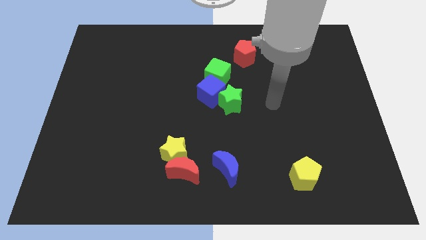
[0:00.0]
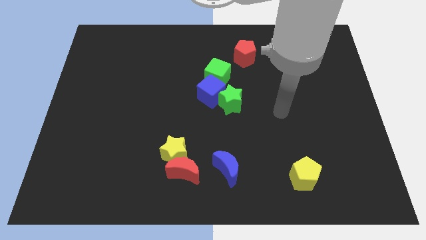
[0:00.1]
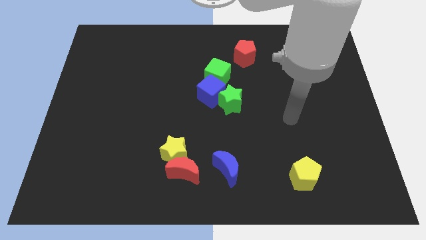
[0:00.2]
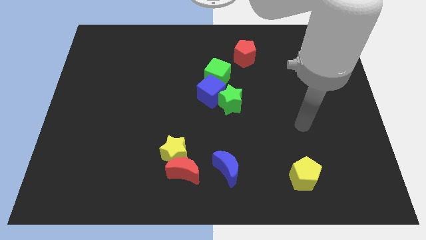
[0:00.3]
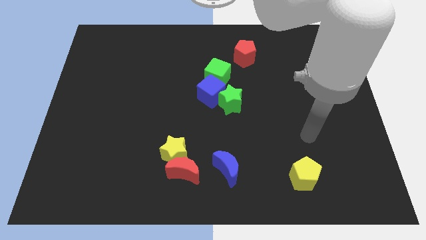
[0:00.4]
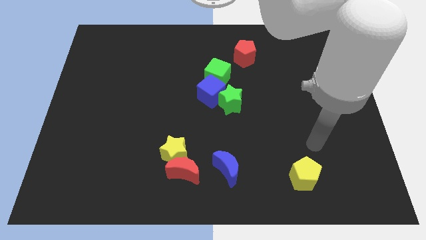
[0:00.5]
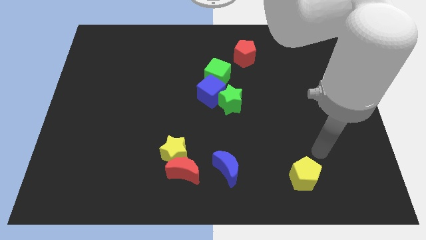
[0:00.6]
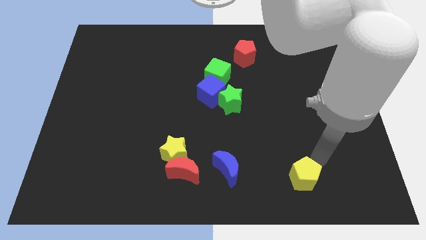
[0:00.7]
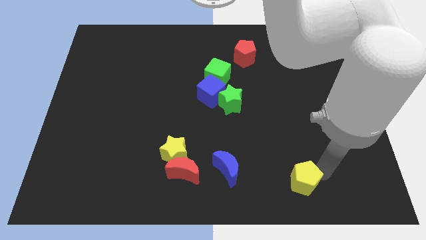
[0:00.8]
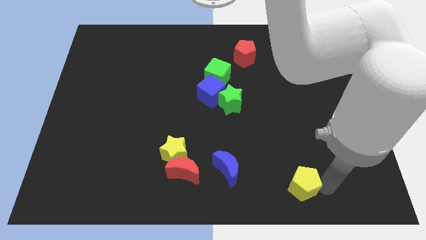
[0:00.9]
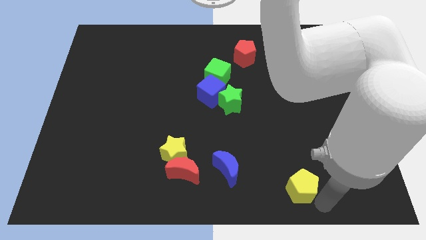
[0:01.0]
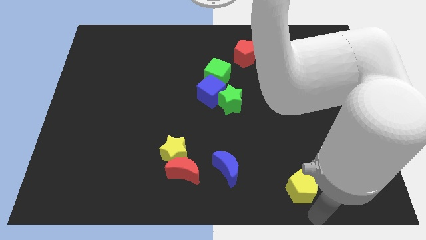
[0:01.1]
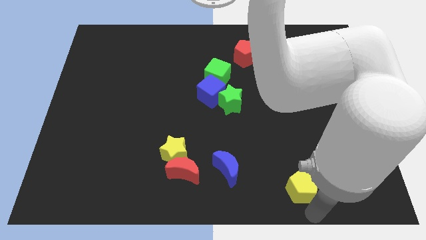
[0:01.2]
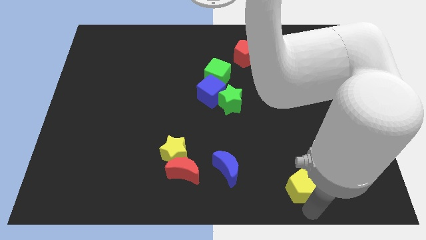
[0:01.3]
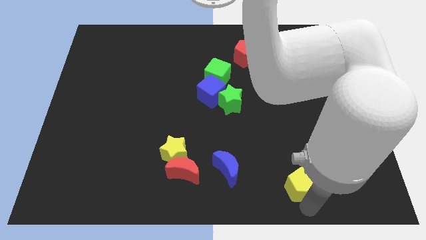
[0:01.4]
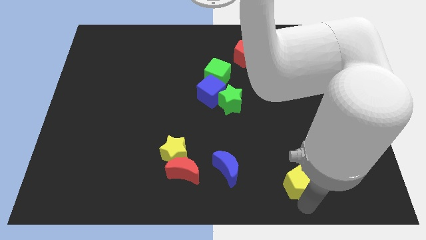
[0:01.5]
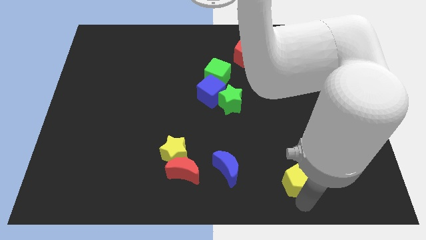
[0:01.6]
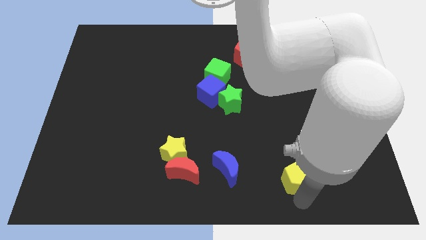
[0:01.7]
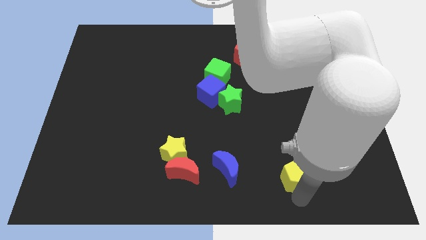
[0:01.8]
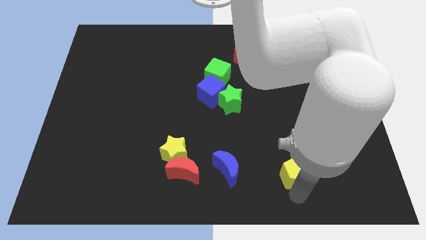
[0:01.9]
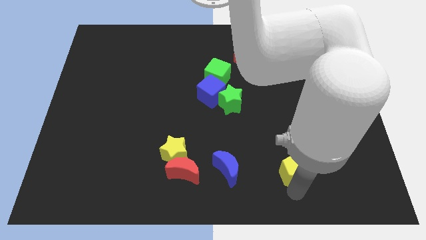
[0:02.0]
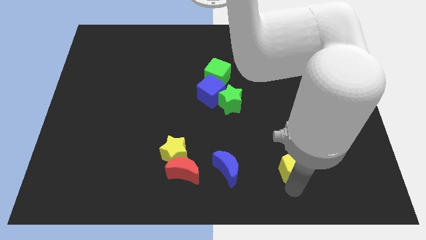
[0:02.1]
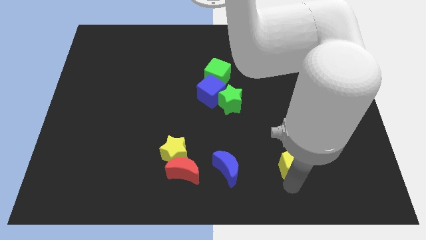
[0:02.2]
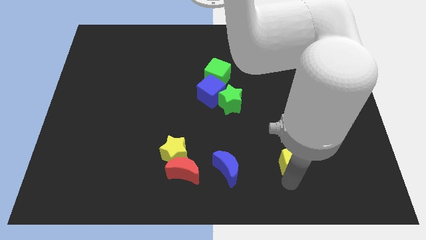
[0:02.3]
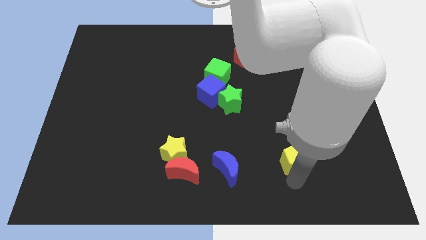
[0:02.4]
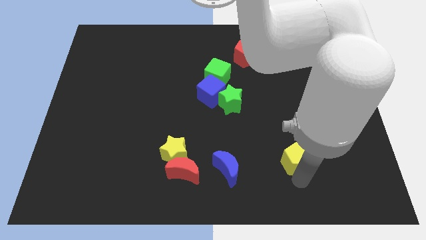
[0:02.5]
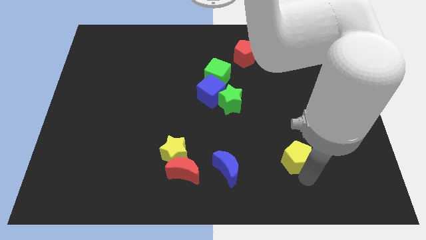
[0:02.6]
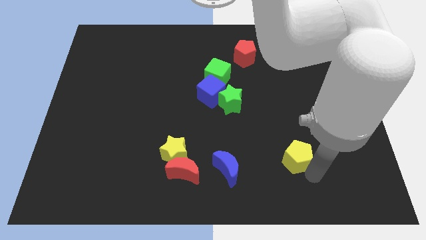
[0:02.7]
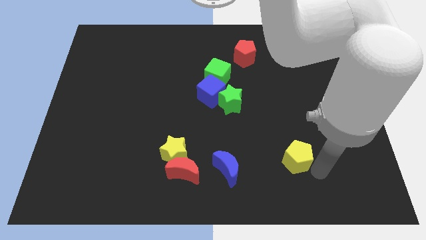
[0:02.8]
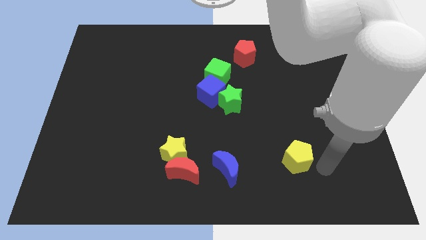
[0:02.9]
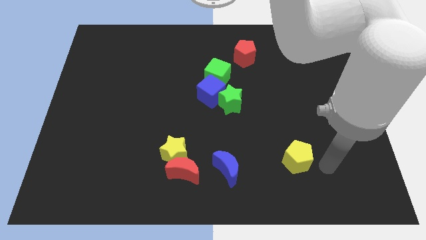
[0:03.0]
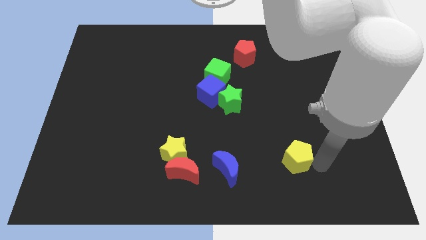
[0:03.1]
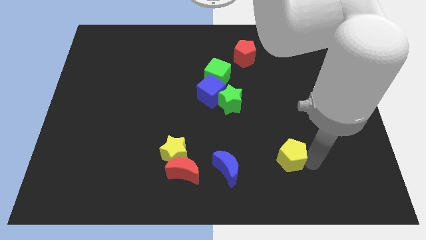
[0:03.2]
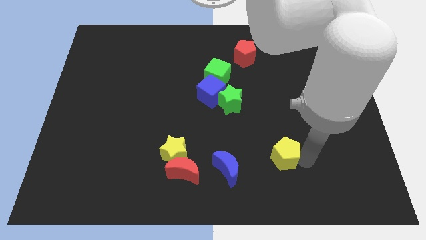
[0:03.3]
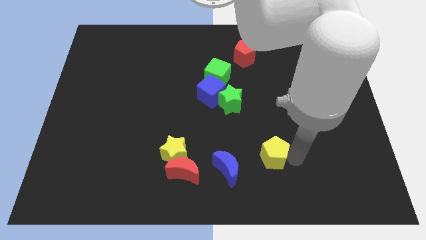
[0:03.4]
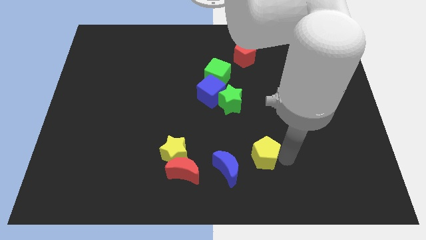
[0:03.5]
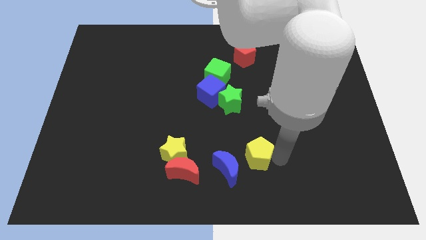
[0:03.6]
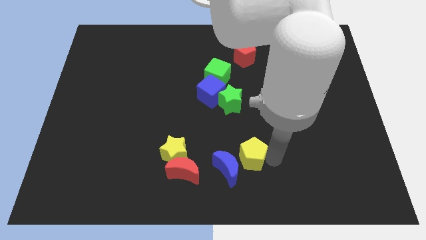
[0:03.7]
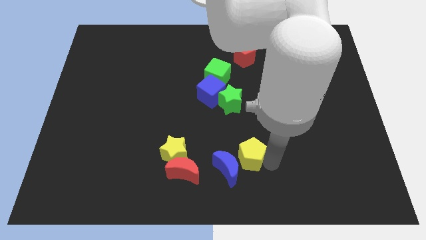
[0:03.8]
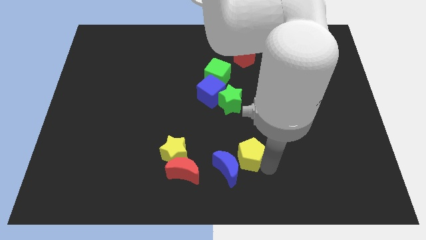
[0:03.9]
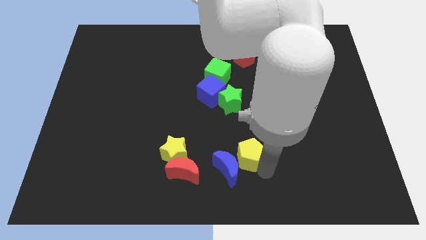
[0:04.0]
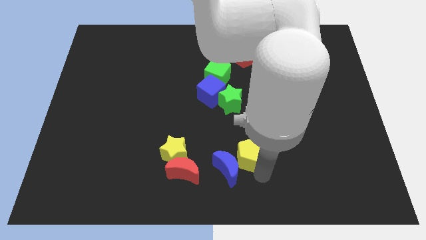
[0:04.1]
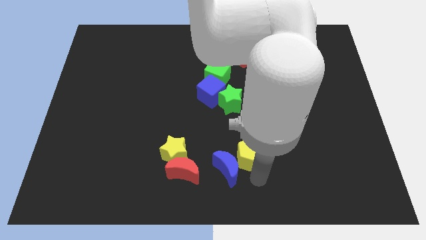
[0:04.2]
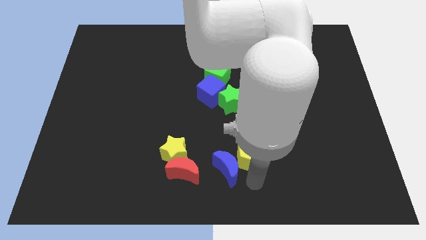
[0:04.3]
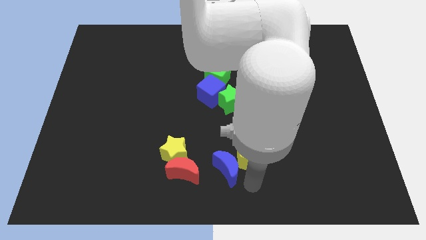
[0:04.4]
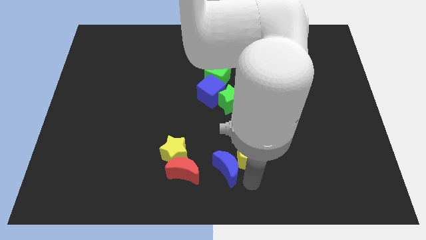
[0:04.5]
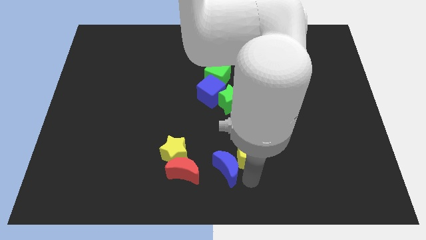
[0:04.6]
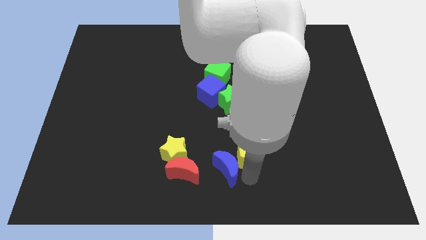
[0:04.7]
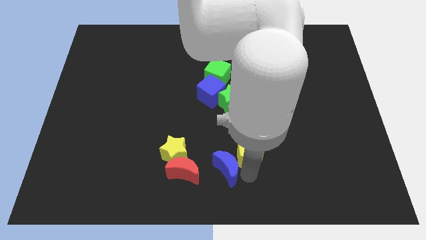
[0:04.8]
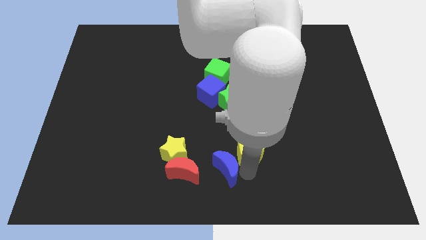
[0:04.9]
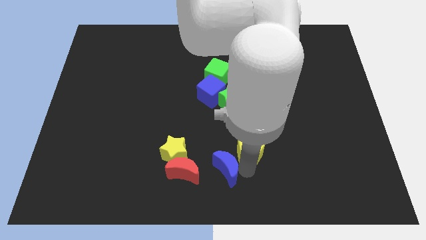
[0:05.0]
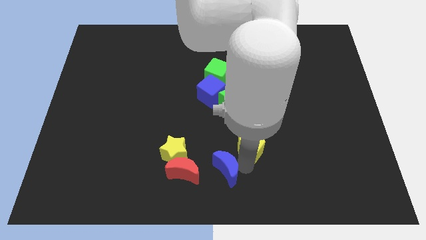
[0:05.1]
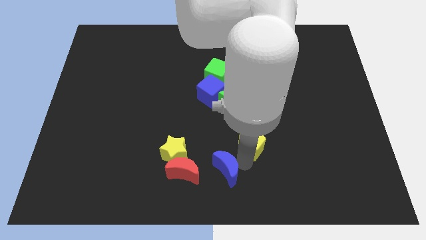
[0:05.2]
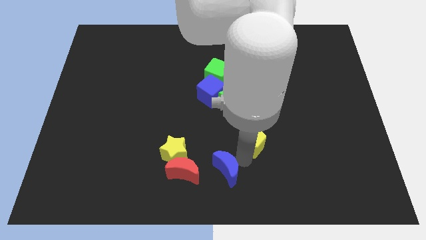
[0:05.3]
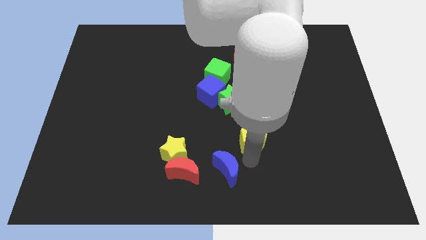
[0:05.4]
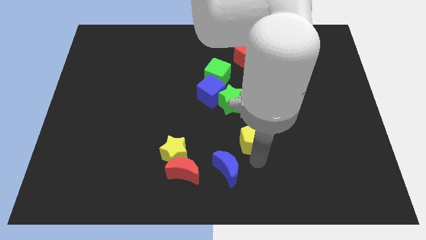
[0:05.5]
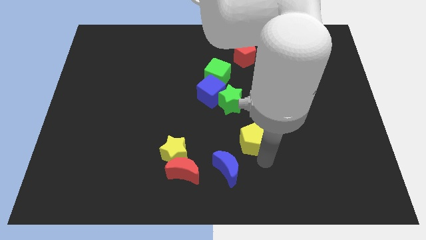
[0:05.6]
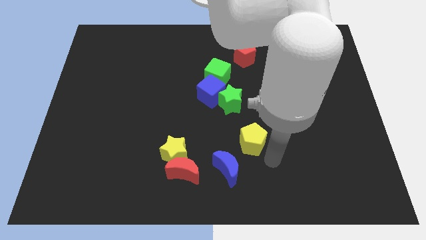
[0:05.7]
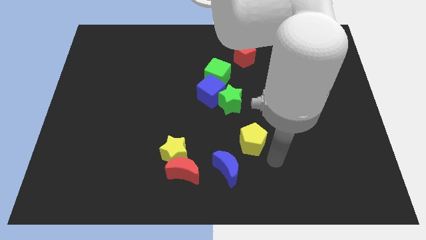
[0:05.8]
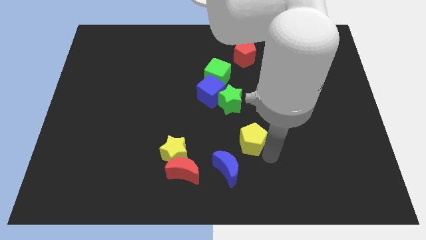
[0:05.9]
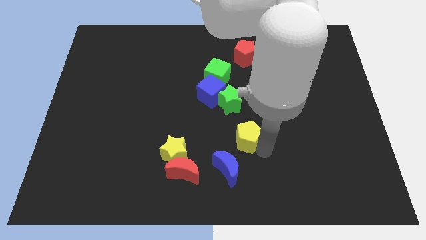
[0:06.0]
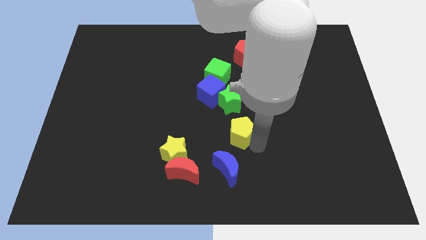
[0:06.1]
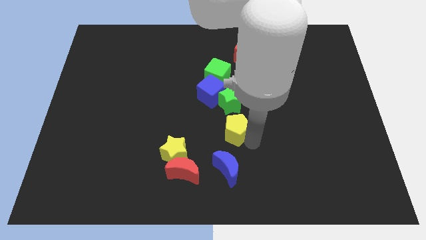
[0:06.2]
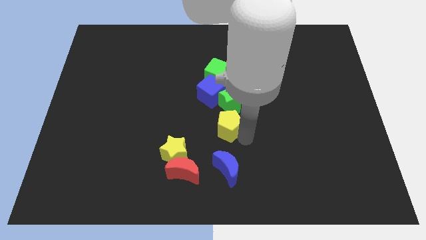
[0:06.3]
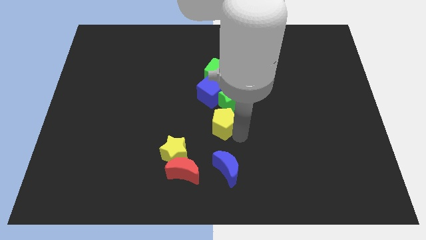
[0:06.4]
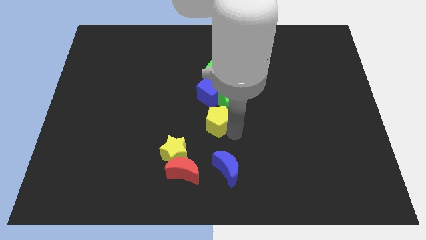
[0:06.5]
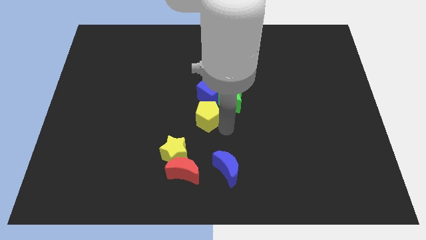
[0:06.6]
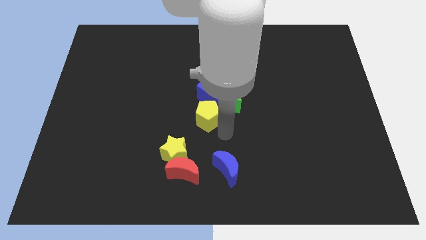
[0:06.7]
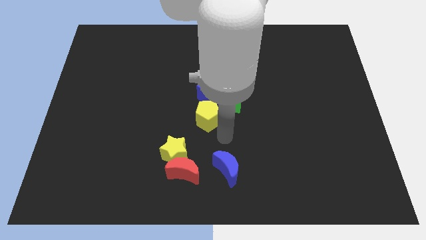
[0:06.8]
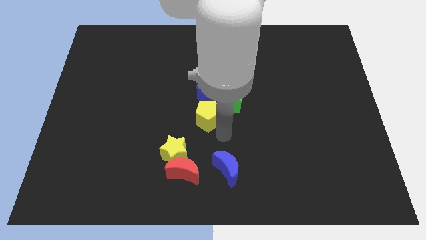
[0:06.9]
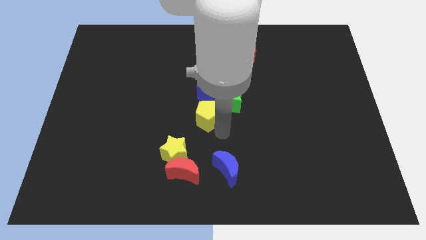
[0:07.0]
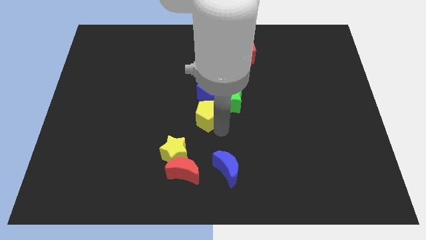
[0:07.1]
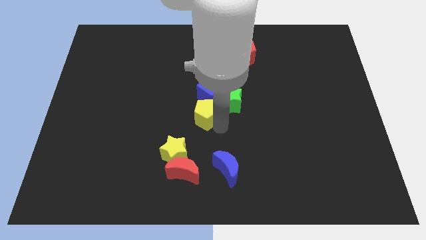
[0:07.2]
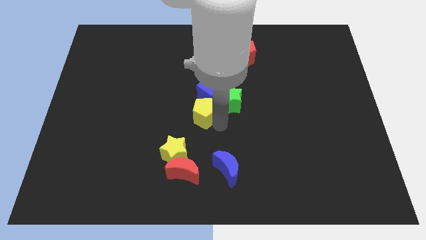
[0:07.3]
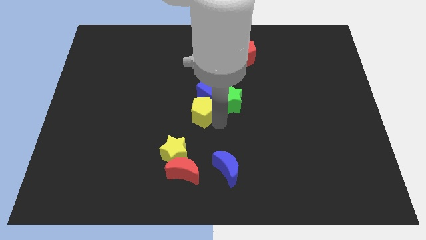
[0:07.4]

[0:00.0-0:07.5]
put the yellow pentagon to the blue cube
